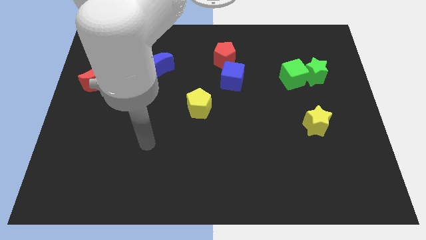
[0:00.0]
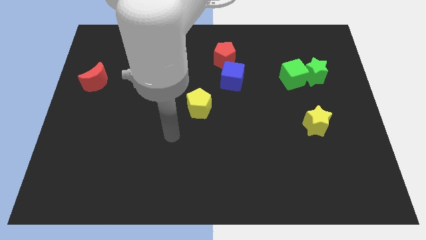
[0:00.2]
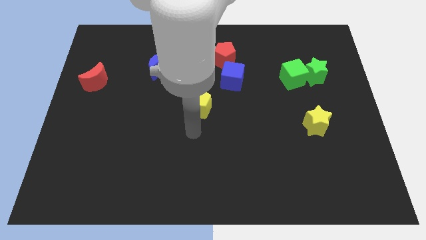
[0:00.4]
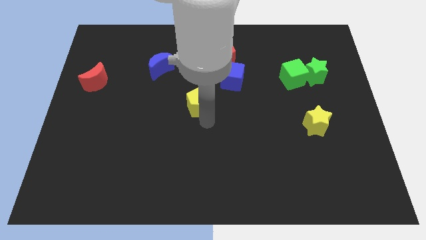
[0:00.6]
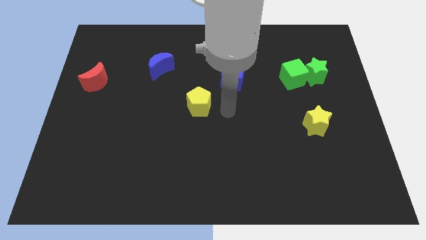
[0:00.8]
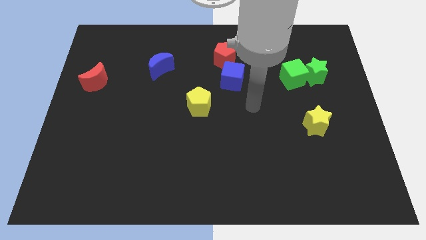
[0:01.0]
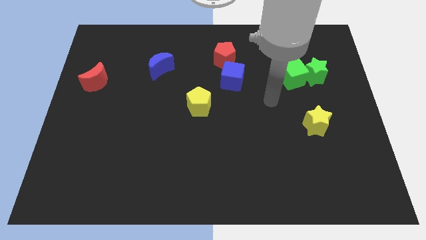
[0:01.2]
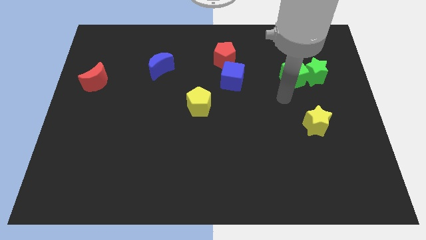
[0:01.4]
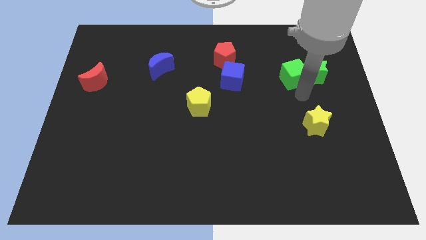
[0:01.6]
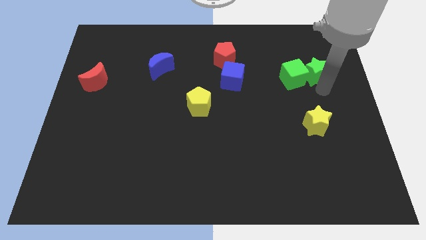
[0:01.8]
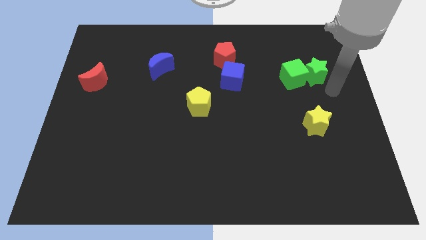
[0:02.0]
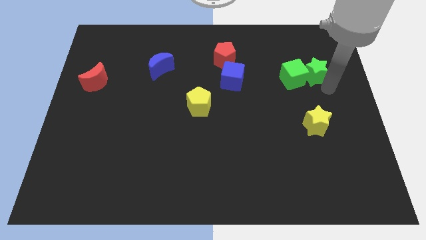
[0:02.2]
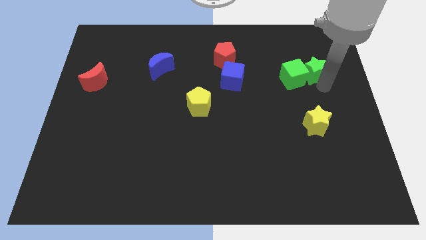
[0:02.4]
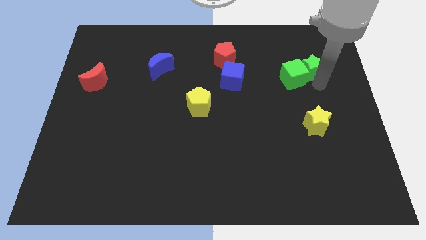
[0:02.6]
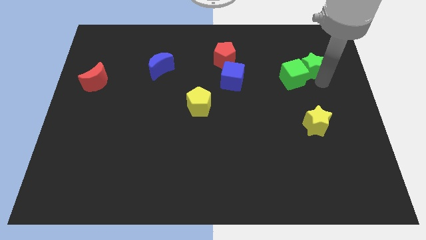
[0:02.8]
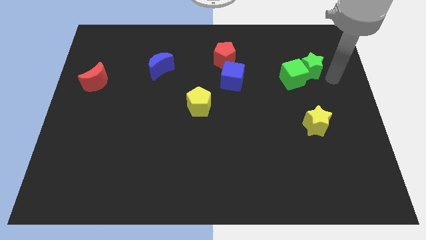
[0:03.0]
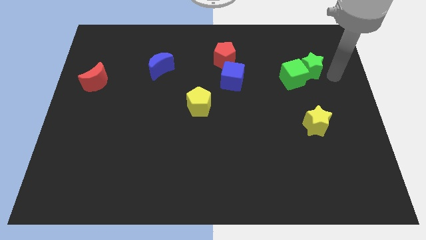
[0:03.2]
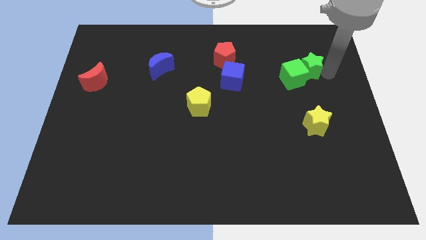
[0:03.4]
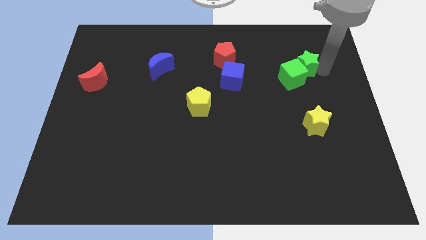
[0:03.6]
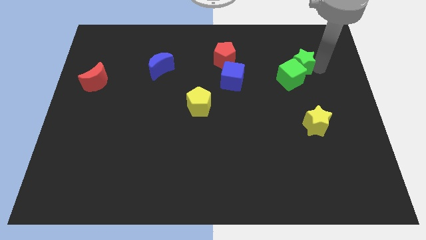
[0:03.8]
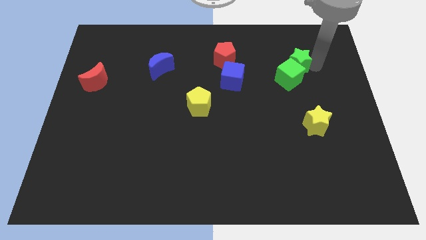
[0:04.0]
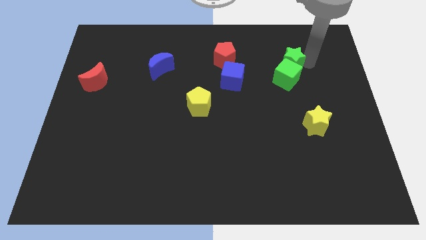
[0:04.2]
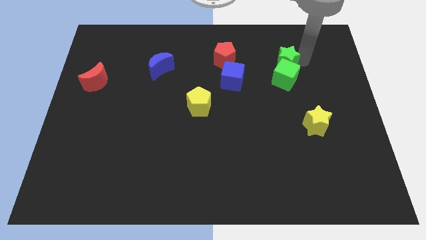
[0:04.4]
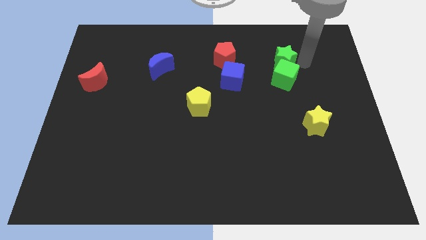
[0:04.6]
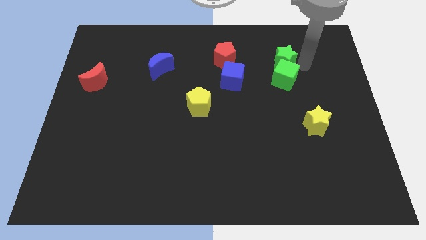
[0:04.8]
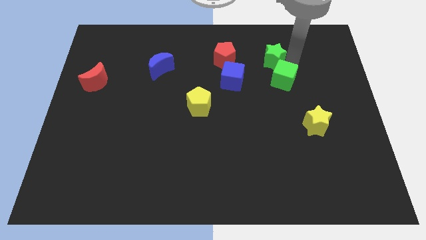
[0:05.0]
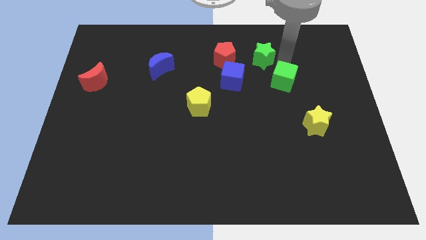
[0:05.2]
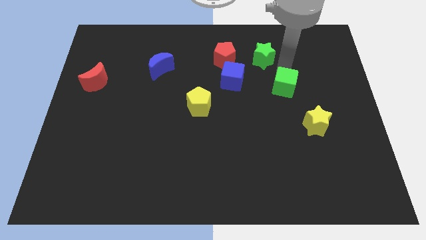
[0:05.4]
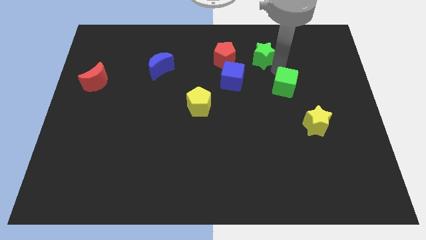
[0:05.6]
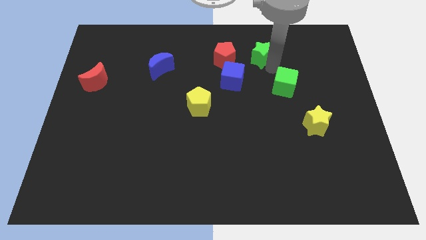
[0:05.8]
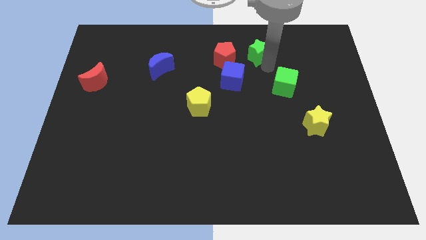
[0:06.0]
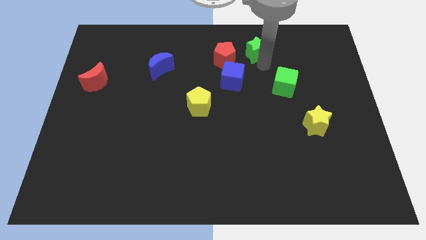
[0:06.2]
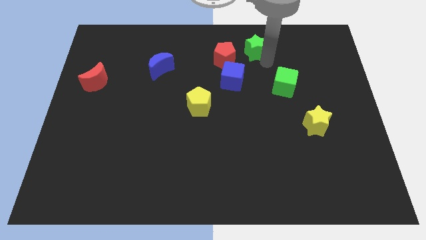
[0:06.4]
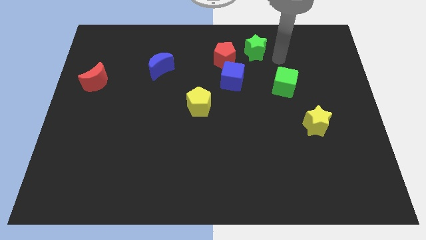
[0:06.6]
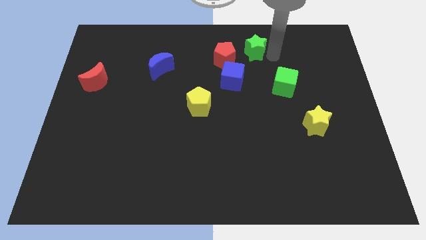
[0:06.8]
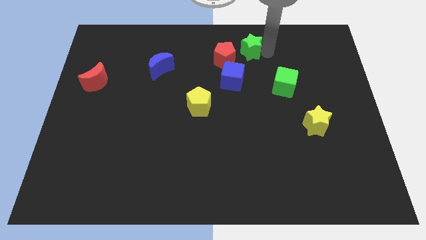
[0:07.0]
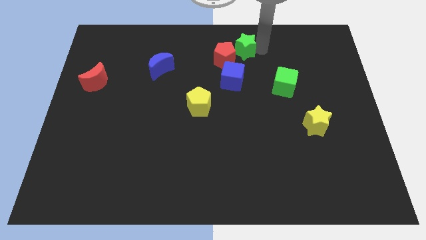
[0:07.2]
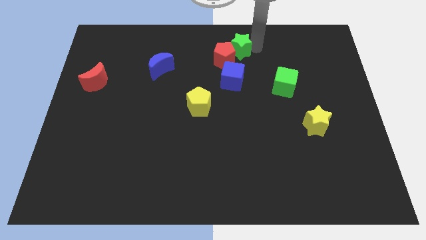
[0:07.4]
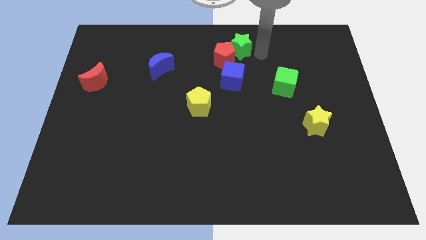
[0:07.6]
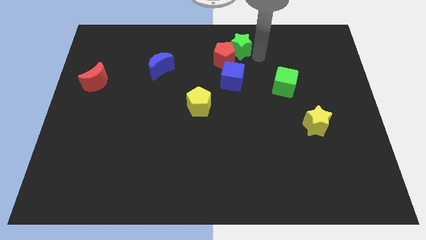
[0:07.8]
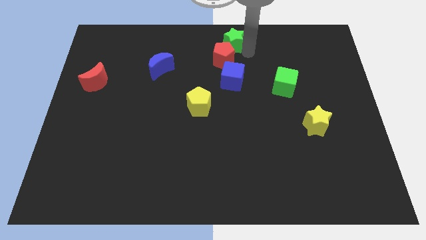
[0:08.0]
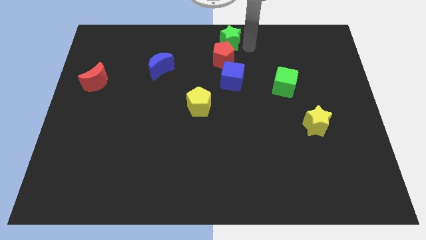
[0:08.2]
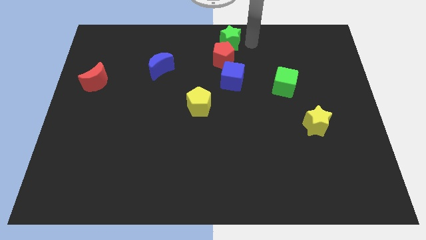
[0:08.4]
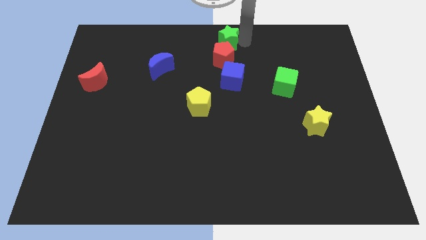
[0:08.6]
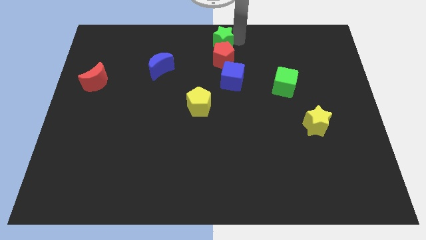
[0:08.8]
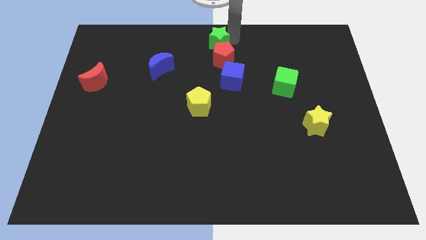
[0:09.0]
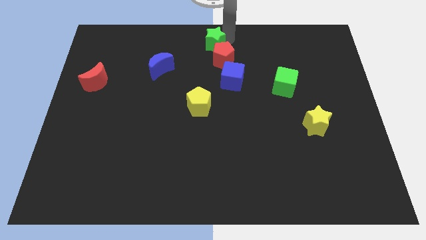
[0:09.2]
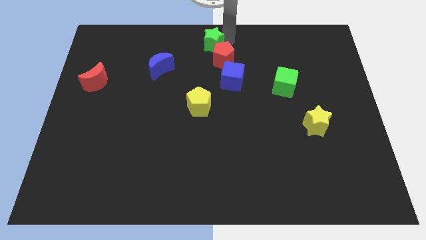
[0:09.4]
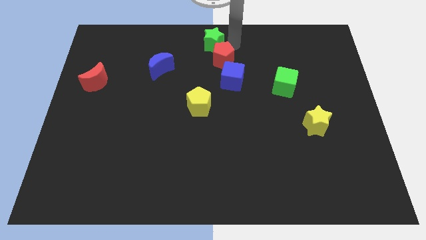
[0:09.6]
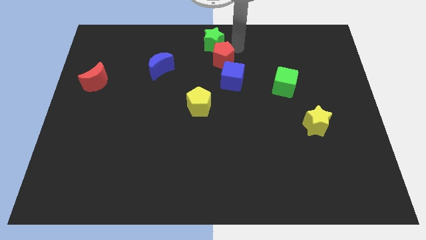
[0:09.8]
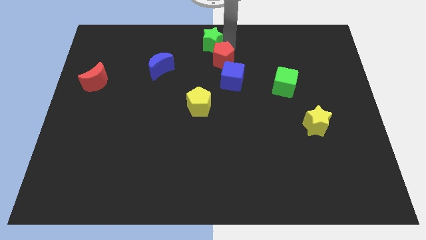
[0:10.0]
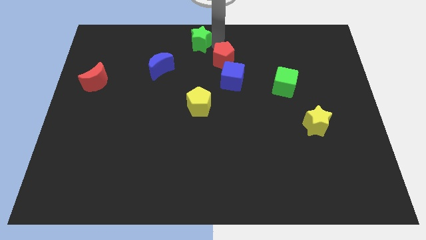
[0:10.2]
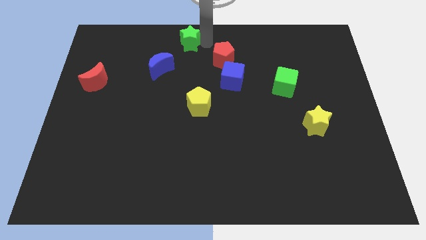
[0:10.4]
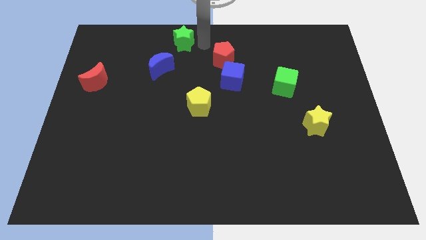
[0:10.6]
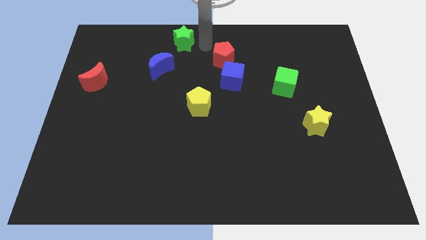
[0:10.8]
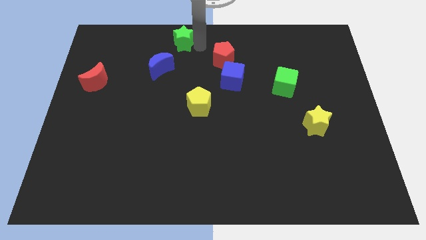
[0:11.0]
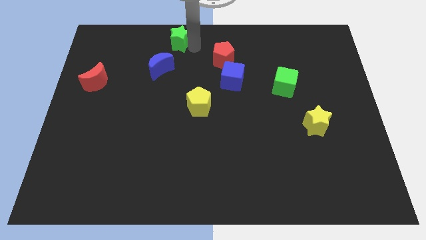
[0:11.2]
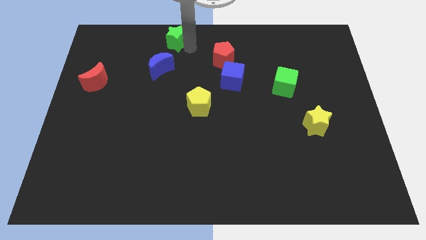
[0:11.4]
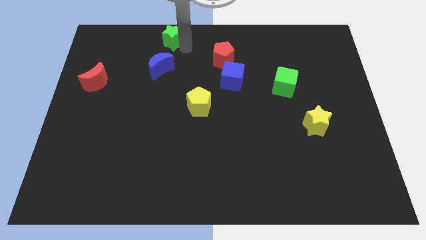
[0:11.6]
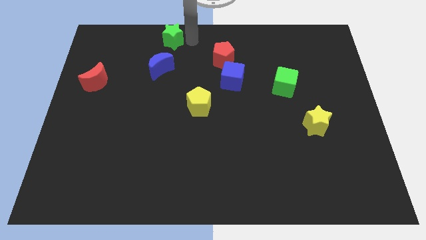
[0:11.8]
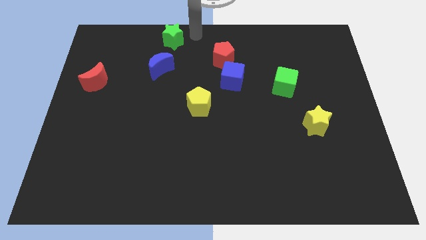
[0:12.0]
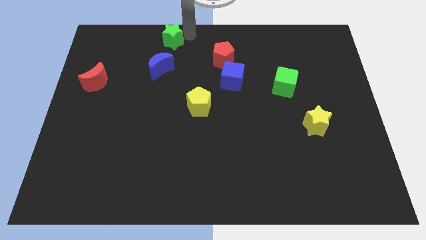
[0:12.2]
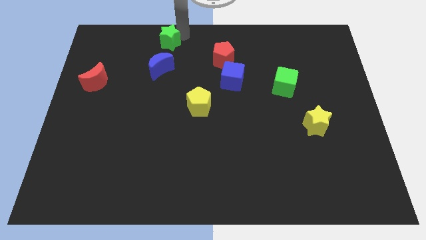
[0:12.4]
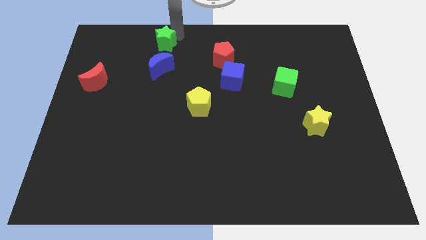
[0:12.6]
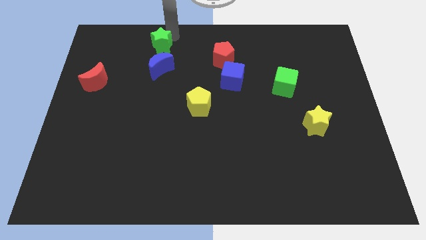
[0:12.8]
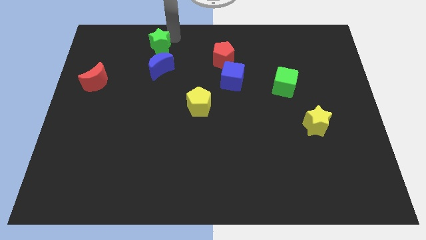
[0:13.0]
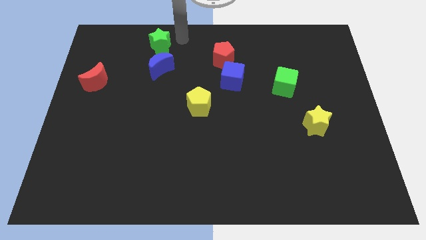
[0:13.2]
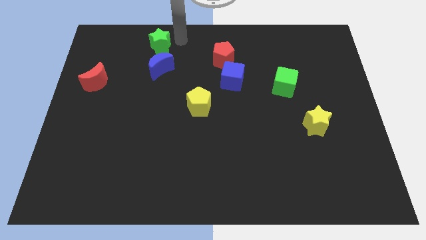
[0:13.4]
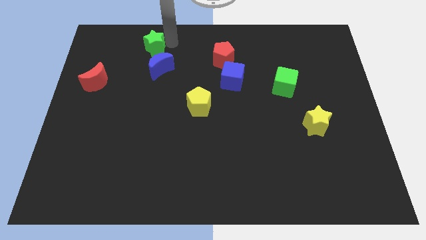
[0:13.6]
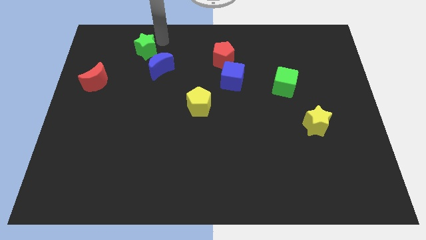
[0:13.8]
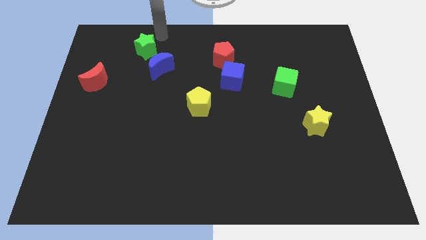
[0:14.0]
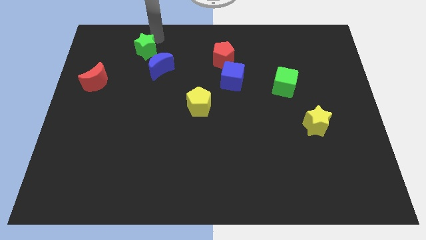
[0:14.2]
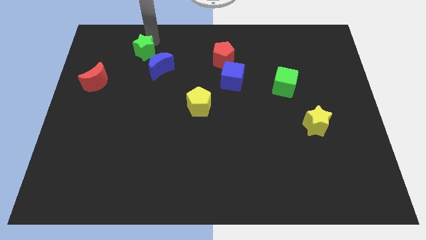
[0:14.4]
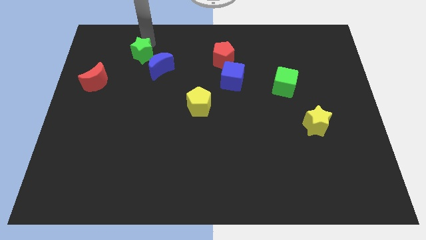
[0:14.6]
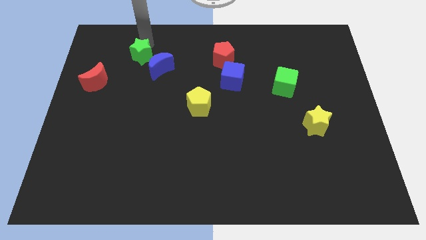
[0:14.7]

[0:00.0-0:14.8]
slide the green star left of the blue moon
